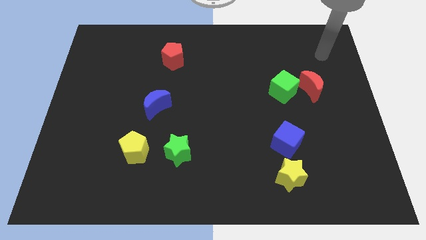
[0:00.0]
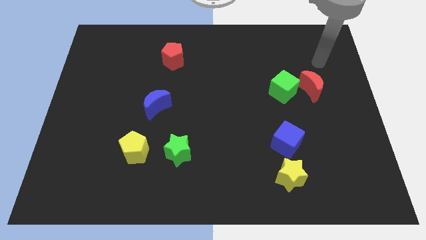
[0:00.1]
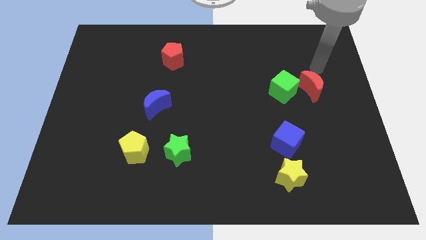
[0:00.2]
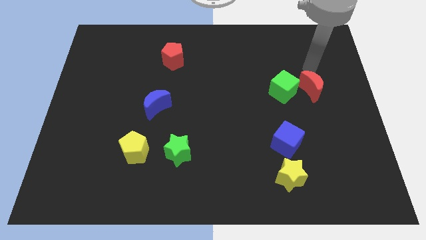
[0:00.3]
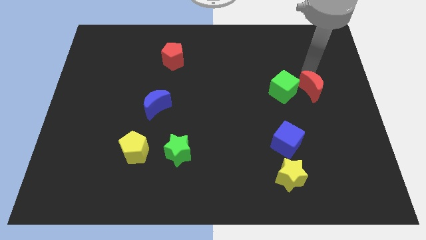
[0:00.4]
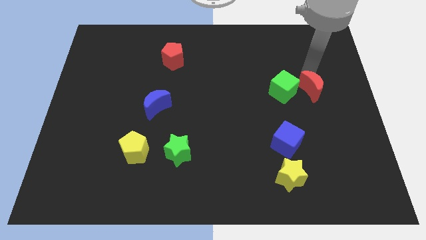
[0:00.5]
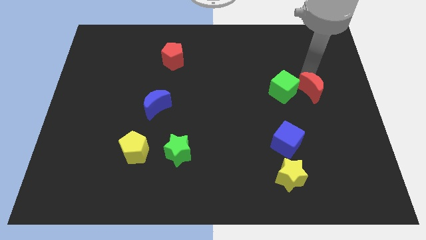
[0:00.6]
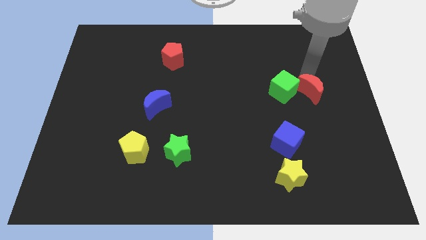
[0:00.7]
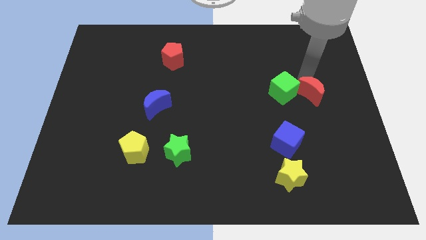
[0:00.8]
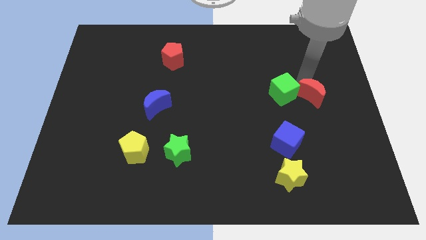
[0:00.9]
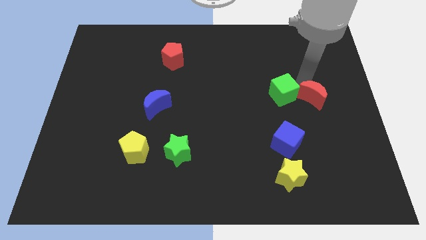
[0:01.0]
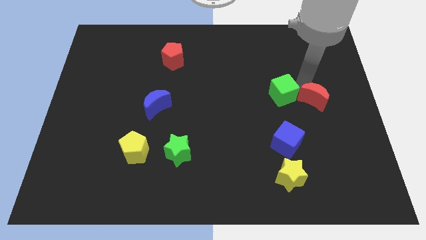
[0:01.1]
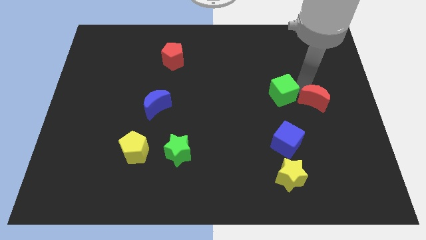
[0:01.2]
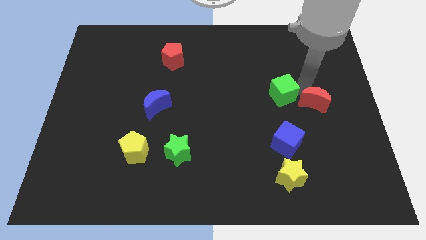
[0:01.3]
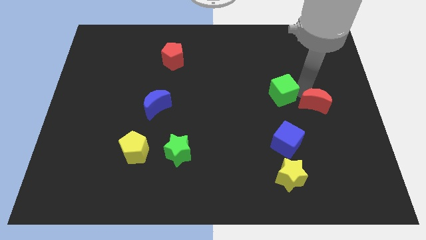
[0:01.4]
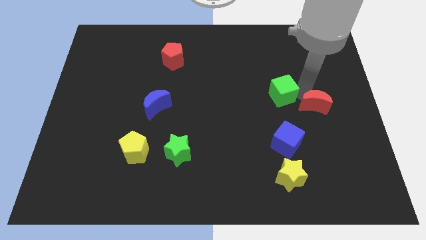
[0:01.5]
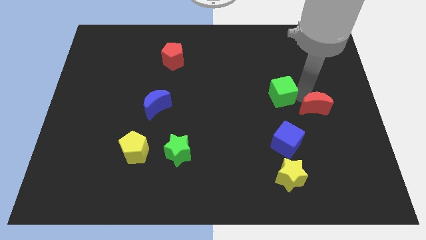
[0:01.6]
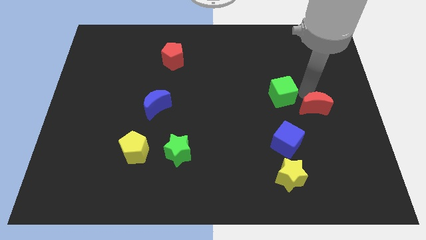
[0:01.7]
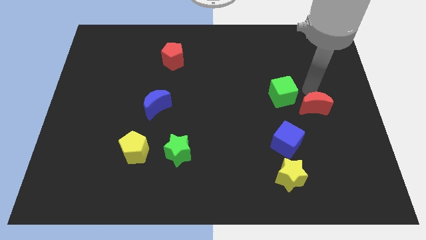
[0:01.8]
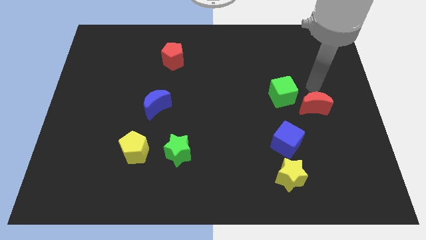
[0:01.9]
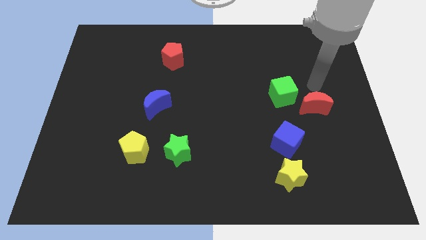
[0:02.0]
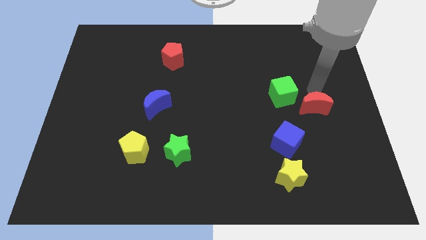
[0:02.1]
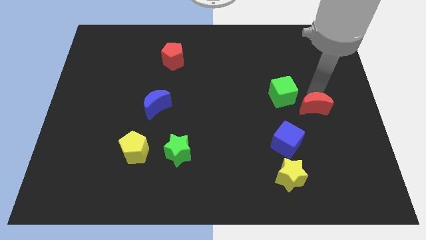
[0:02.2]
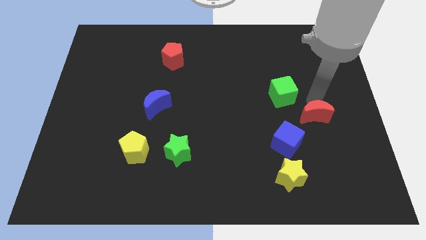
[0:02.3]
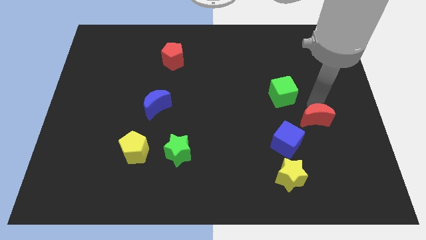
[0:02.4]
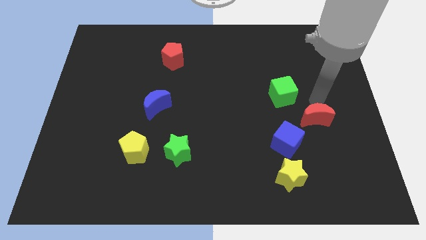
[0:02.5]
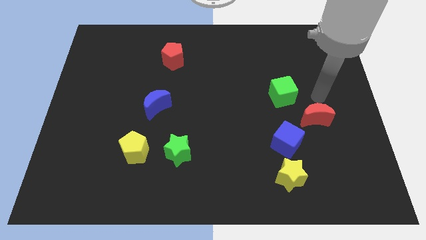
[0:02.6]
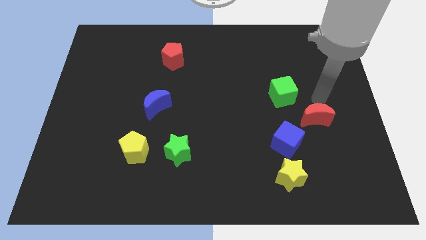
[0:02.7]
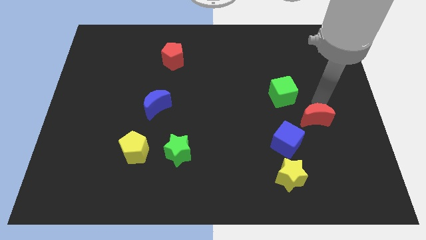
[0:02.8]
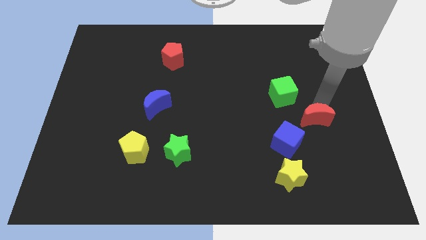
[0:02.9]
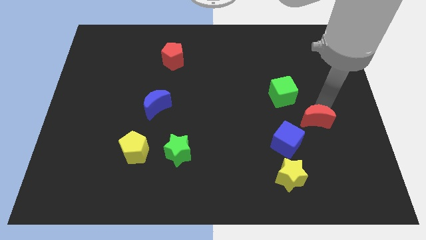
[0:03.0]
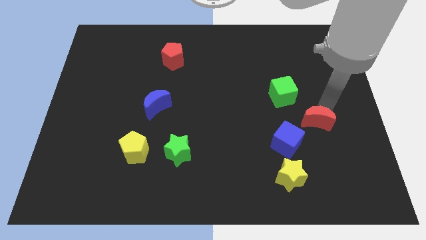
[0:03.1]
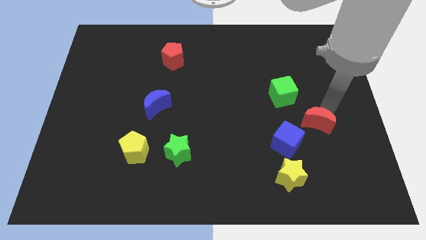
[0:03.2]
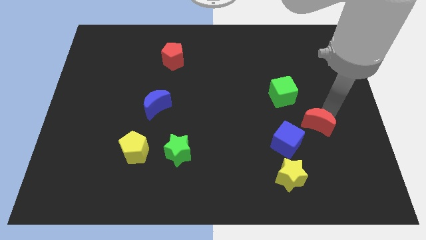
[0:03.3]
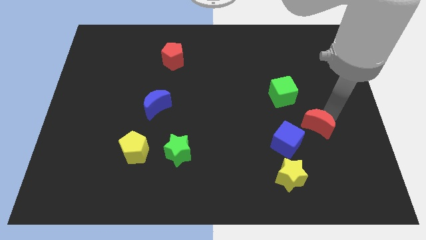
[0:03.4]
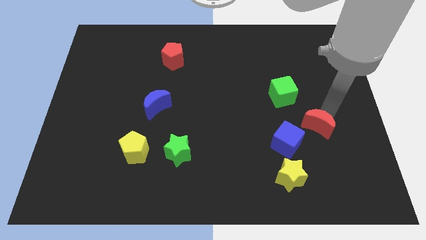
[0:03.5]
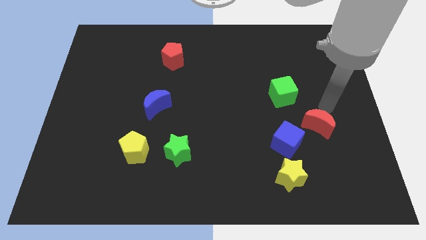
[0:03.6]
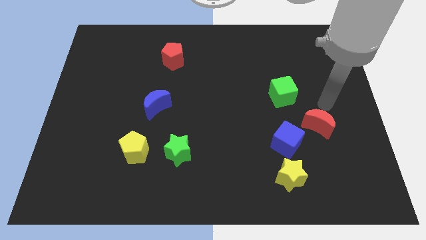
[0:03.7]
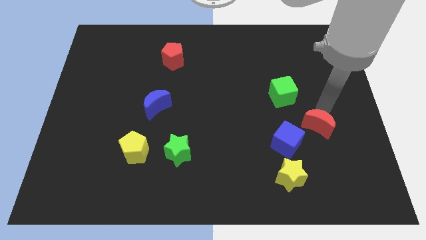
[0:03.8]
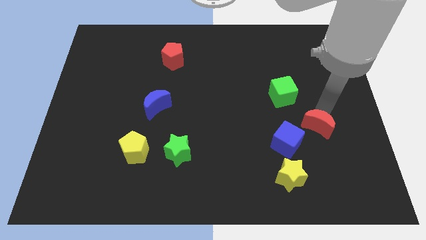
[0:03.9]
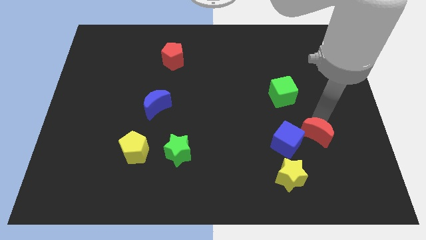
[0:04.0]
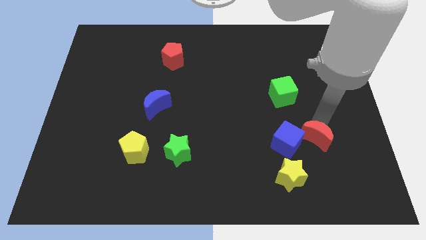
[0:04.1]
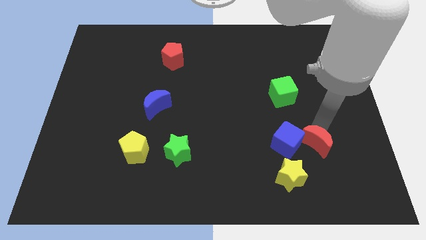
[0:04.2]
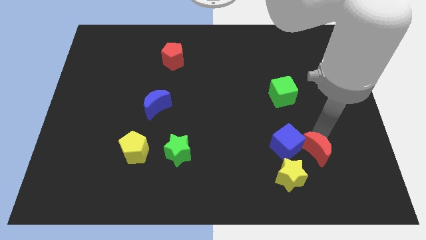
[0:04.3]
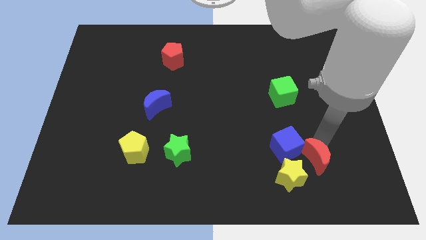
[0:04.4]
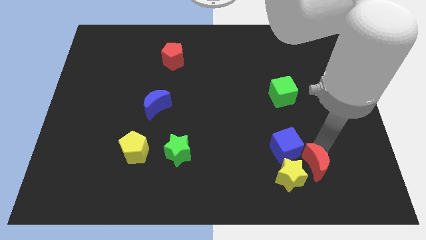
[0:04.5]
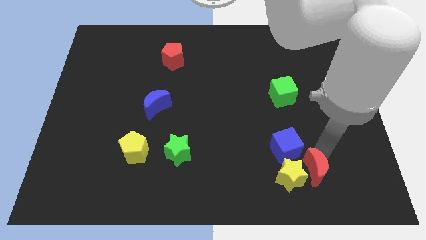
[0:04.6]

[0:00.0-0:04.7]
put the red moon towards the yellow star

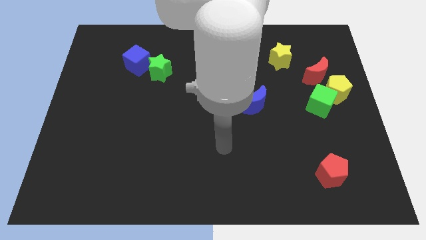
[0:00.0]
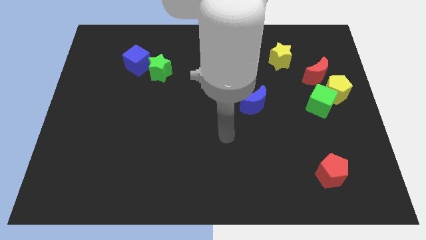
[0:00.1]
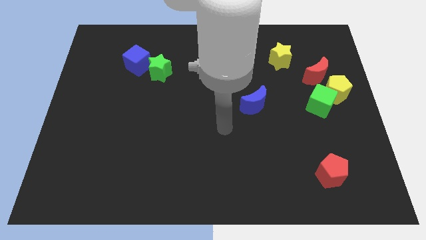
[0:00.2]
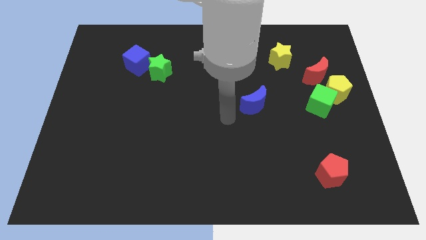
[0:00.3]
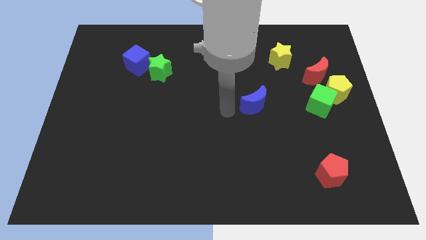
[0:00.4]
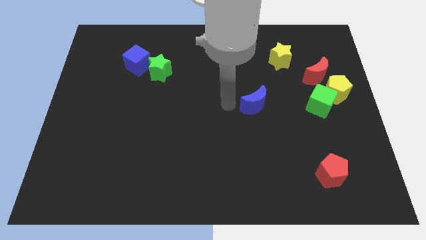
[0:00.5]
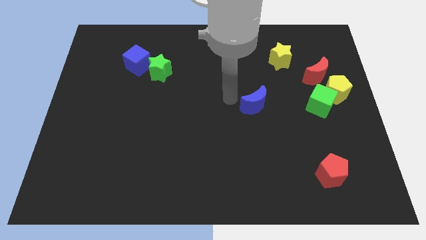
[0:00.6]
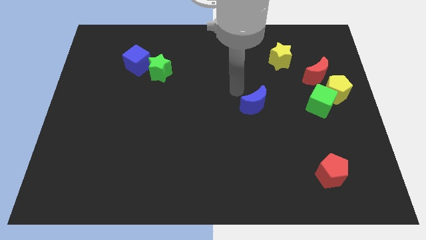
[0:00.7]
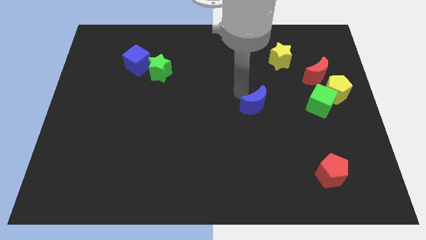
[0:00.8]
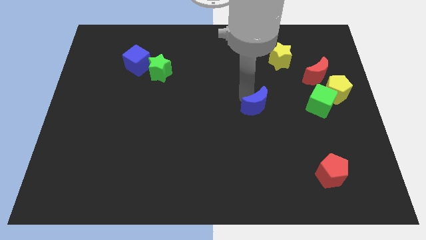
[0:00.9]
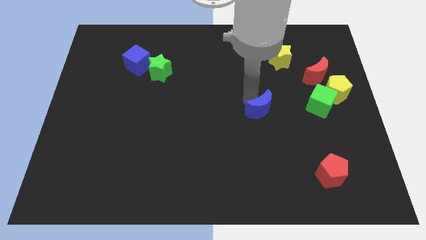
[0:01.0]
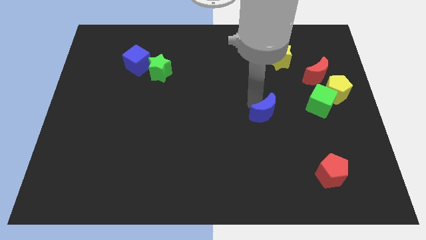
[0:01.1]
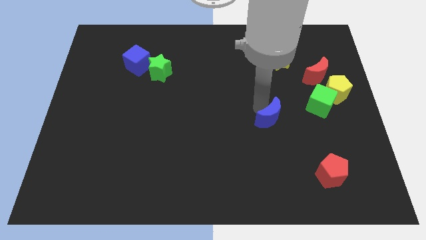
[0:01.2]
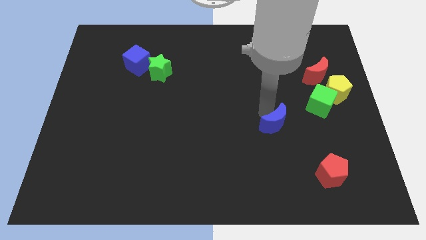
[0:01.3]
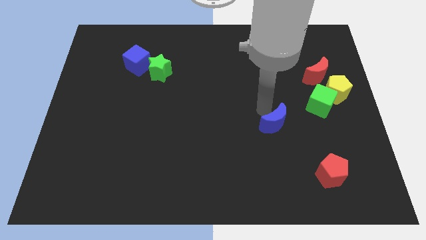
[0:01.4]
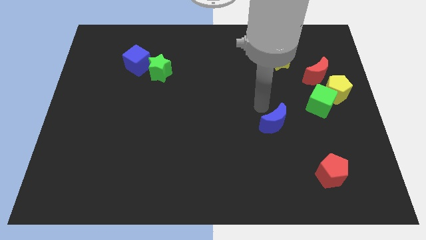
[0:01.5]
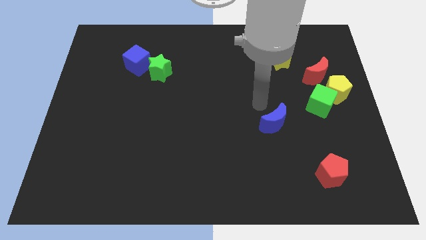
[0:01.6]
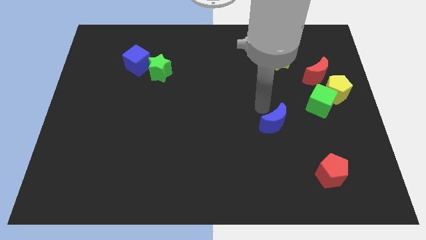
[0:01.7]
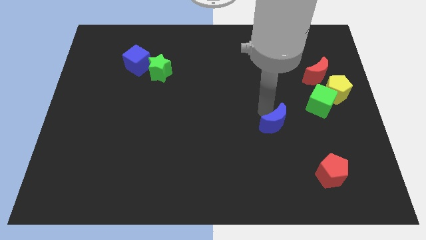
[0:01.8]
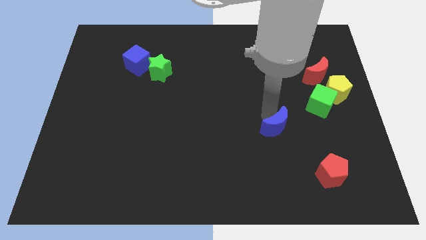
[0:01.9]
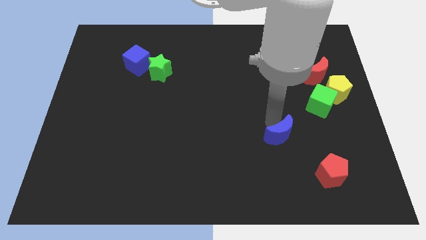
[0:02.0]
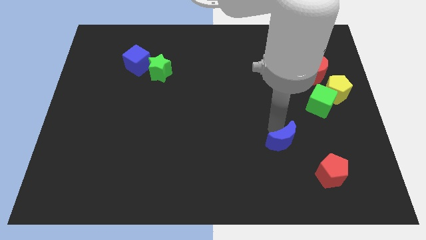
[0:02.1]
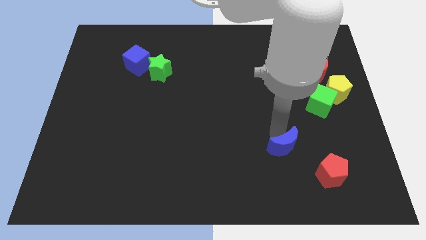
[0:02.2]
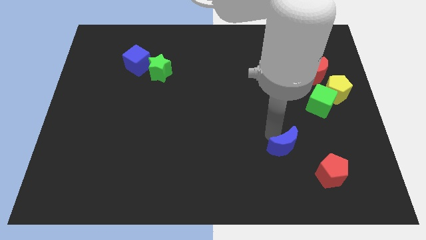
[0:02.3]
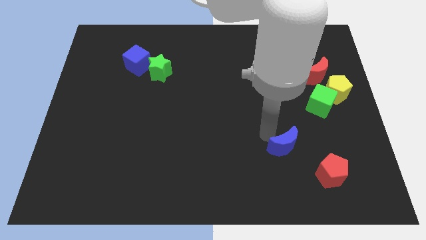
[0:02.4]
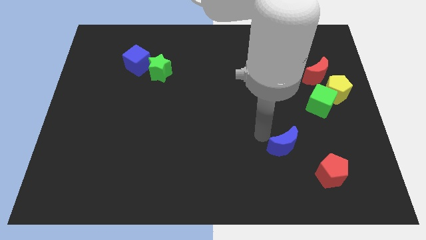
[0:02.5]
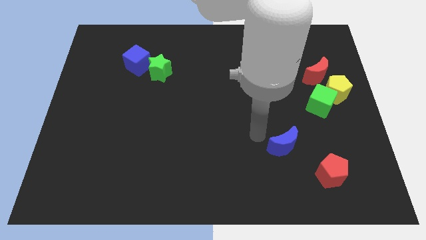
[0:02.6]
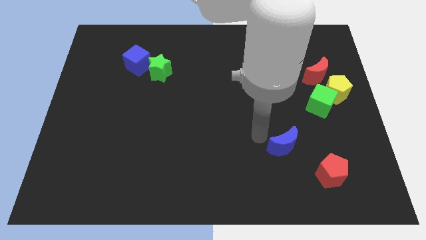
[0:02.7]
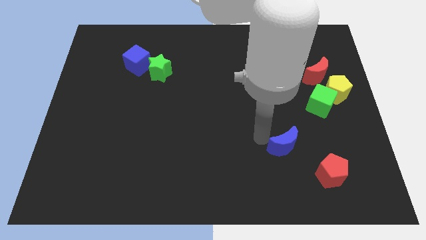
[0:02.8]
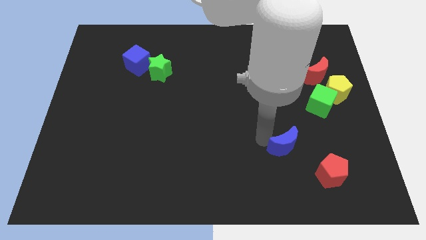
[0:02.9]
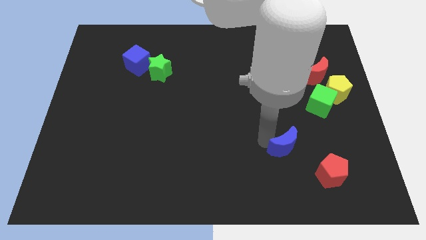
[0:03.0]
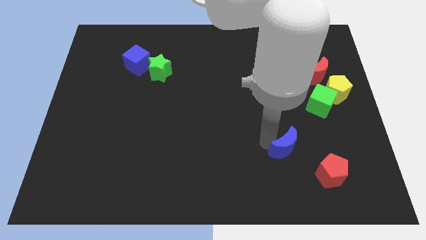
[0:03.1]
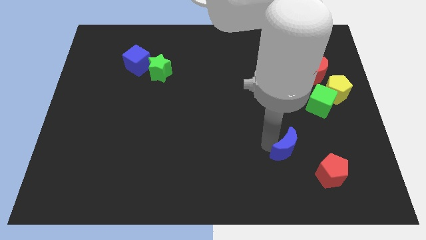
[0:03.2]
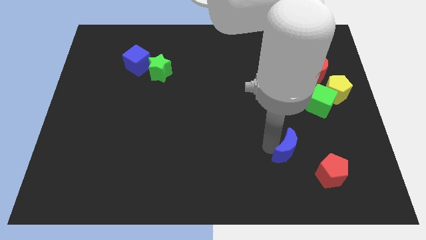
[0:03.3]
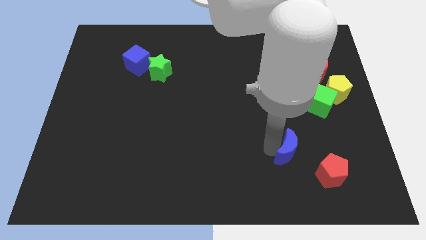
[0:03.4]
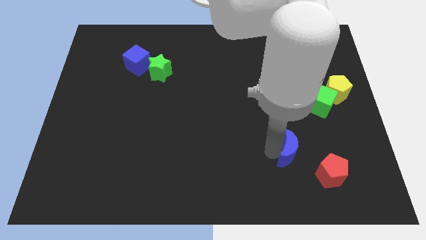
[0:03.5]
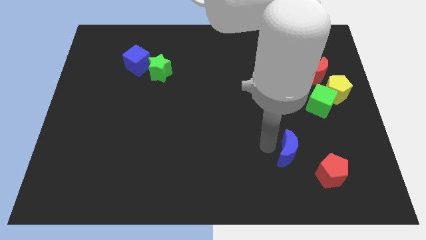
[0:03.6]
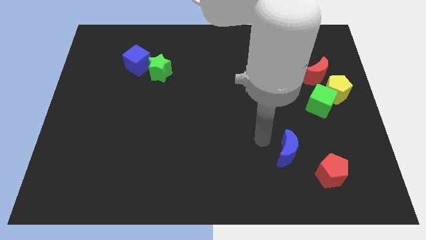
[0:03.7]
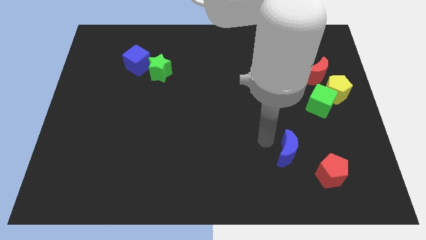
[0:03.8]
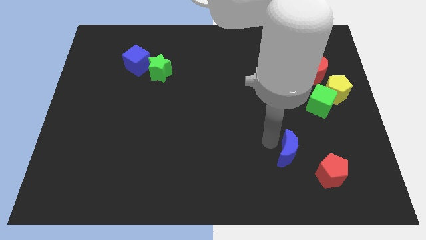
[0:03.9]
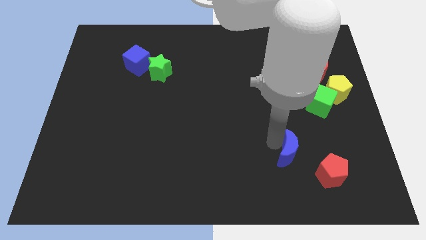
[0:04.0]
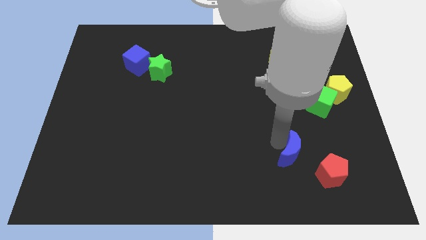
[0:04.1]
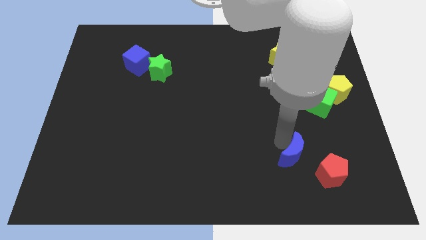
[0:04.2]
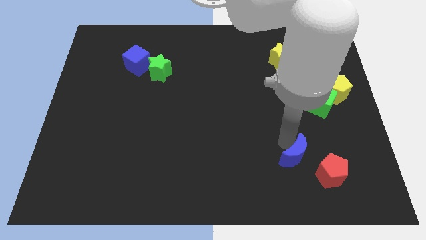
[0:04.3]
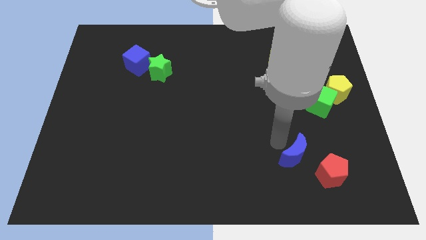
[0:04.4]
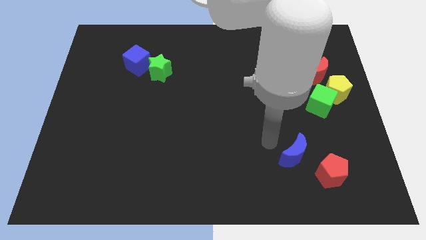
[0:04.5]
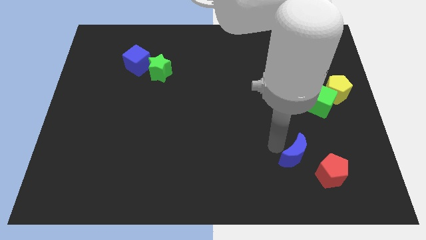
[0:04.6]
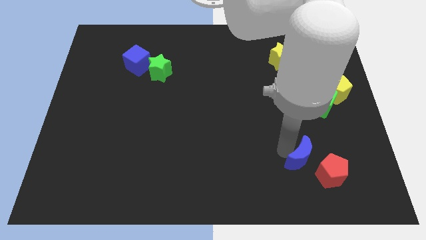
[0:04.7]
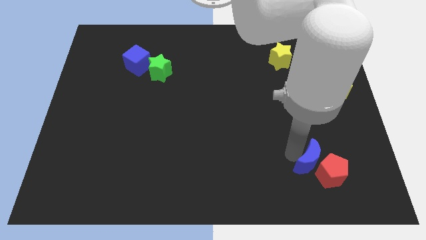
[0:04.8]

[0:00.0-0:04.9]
put the blue moon close to the red pentagon
